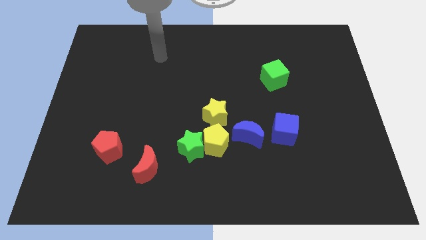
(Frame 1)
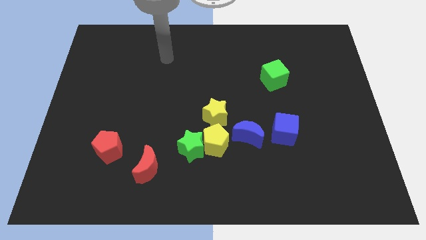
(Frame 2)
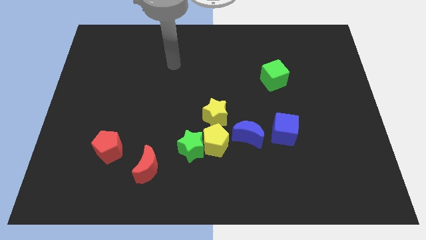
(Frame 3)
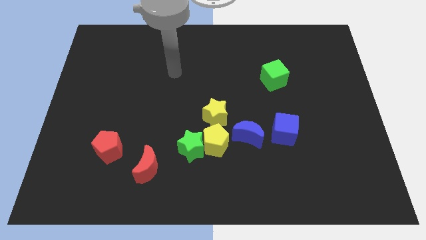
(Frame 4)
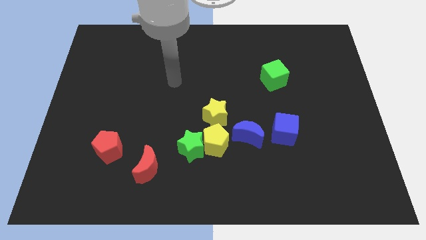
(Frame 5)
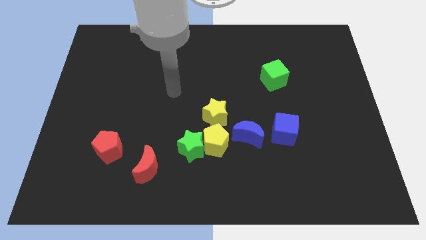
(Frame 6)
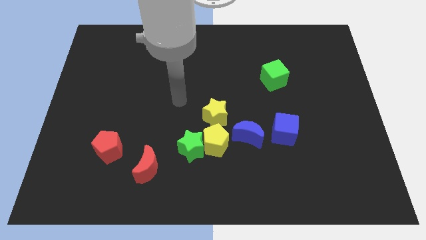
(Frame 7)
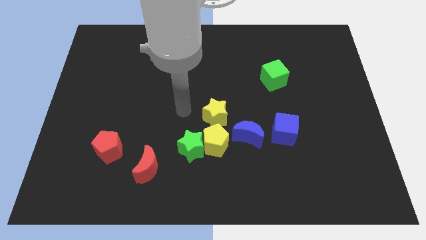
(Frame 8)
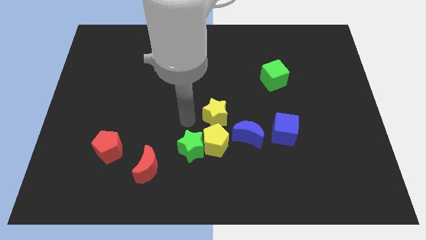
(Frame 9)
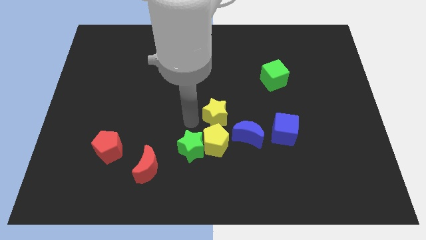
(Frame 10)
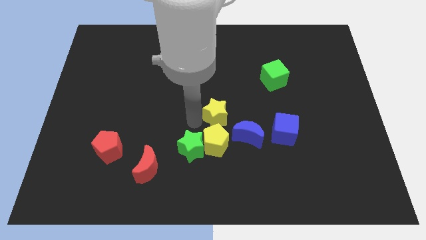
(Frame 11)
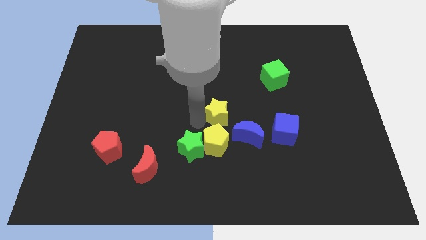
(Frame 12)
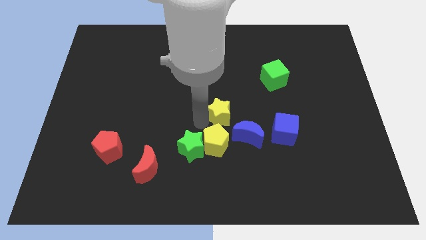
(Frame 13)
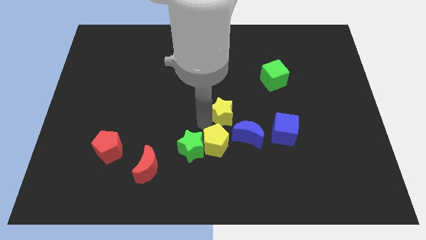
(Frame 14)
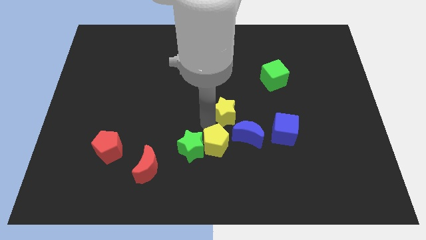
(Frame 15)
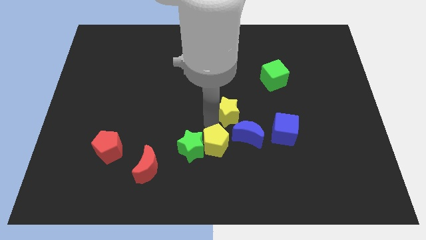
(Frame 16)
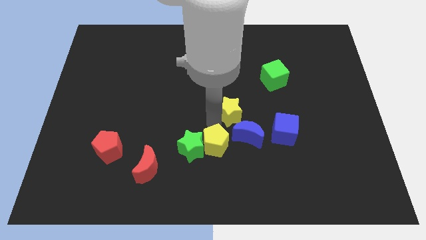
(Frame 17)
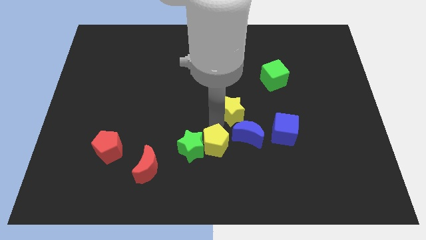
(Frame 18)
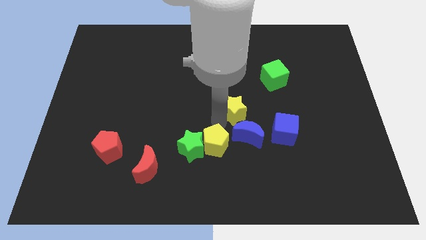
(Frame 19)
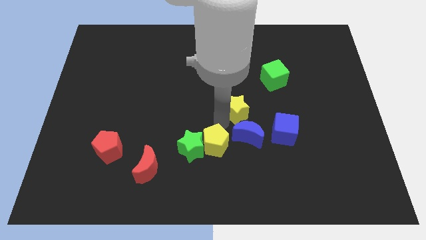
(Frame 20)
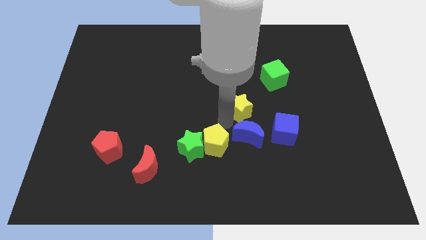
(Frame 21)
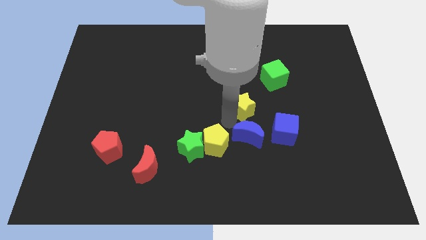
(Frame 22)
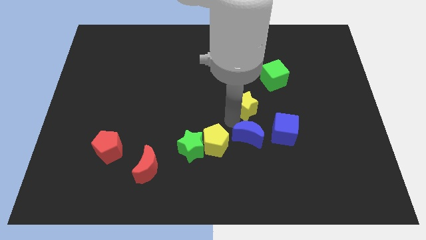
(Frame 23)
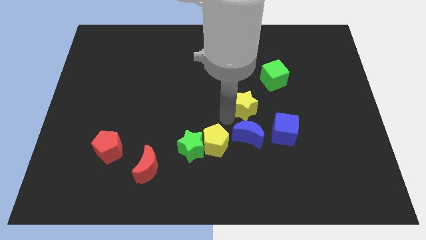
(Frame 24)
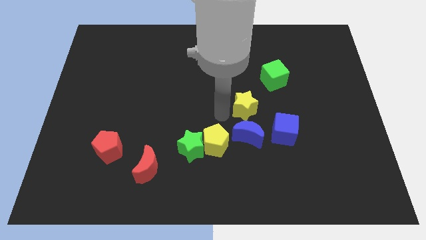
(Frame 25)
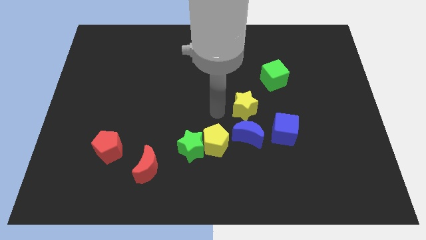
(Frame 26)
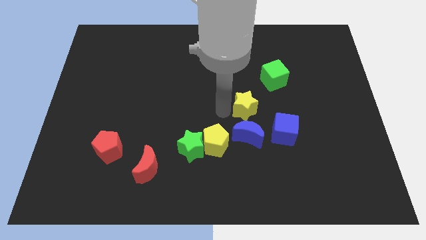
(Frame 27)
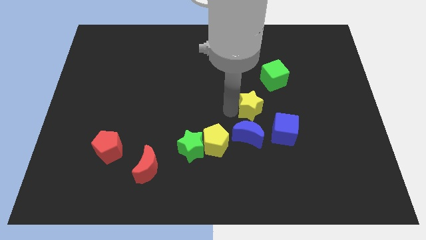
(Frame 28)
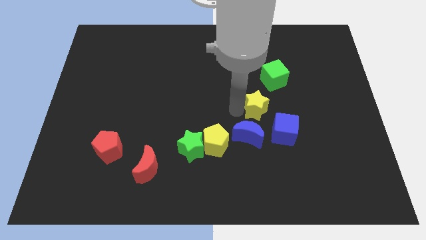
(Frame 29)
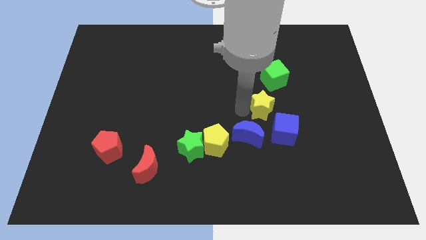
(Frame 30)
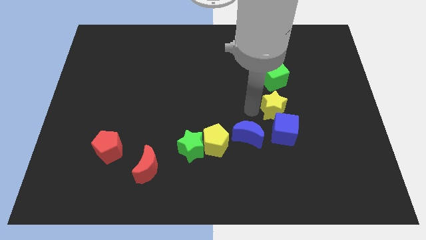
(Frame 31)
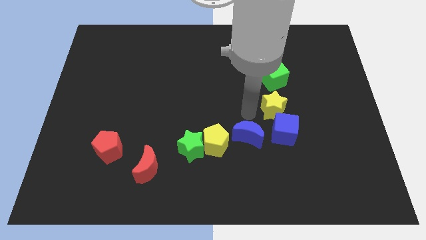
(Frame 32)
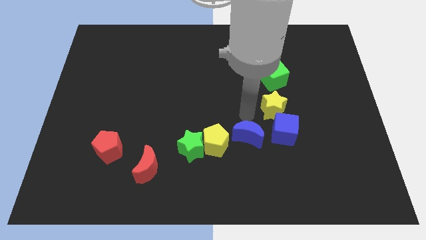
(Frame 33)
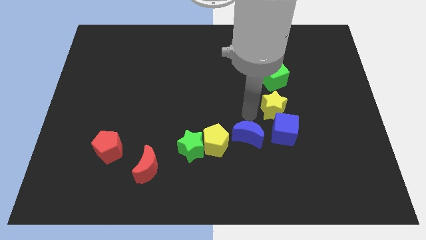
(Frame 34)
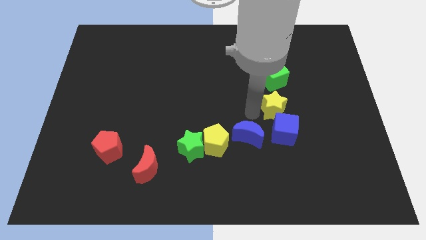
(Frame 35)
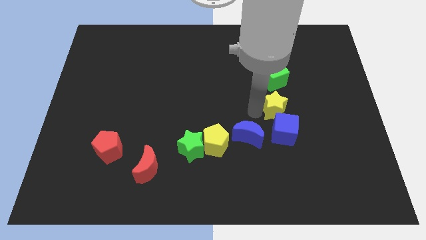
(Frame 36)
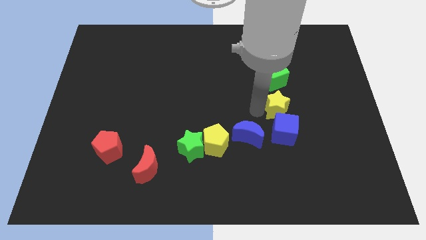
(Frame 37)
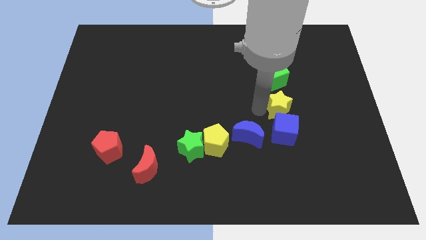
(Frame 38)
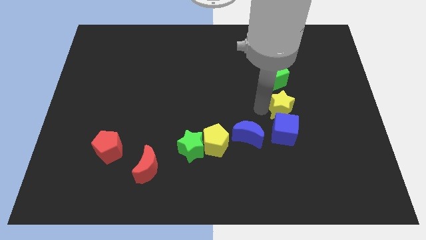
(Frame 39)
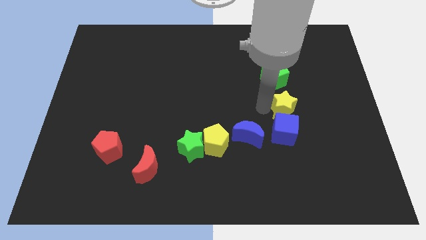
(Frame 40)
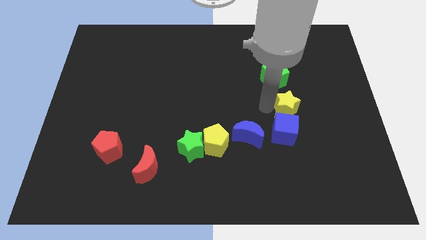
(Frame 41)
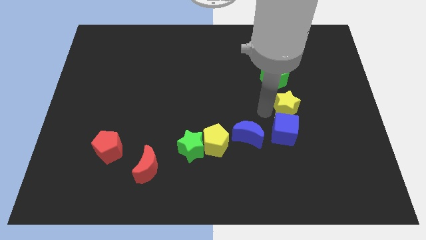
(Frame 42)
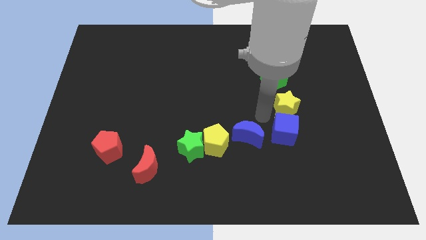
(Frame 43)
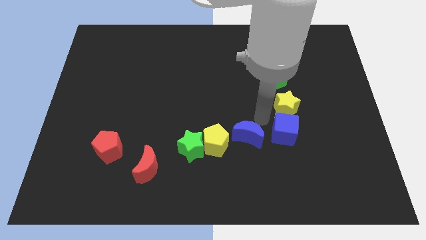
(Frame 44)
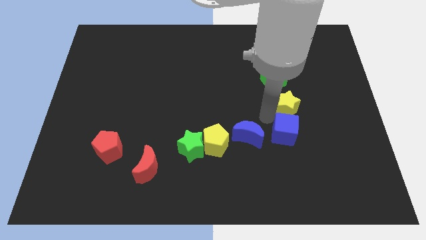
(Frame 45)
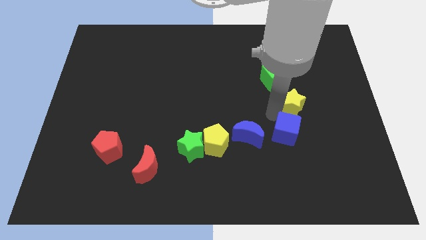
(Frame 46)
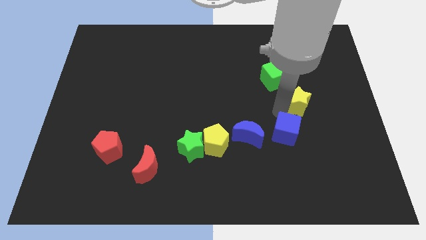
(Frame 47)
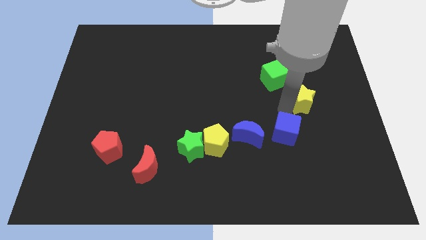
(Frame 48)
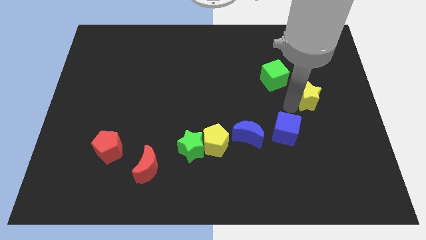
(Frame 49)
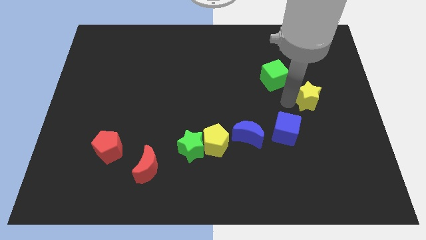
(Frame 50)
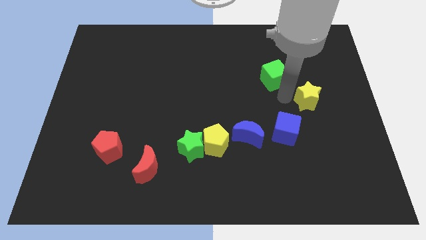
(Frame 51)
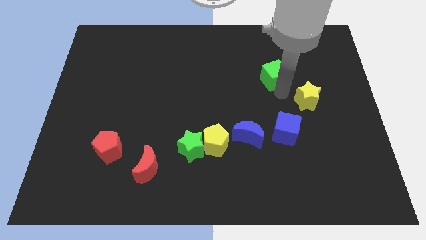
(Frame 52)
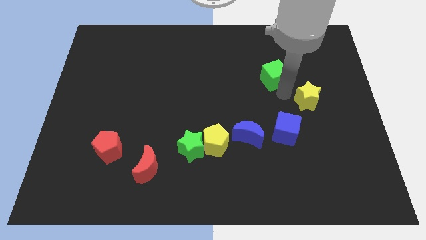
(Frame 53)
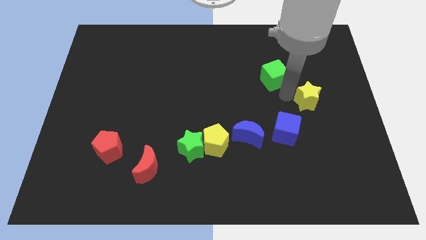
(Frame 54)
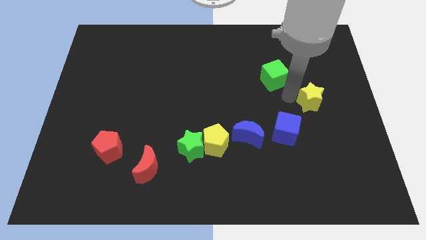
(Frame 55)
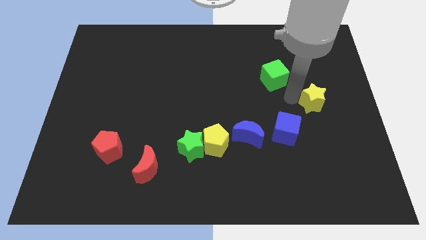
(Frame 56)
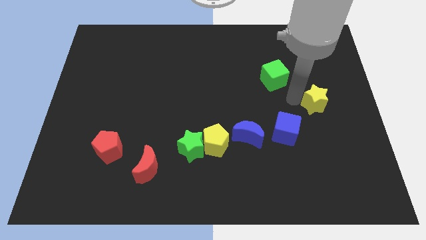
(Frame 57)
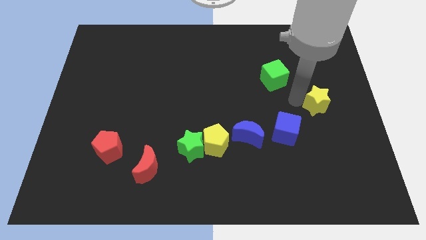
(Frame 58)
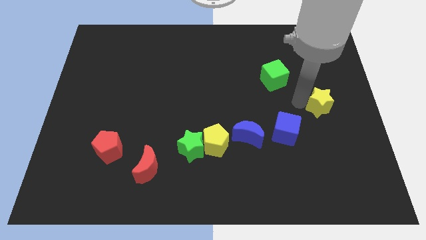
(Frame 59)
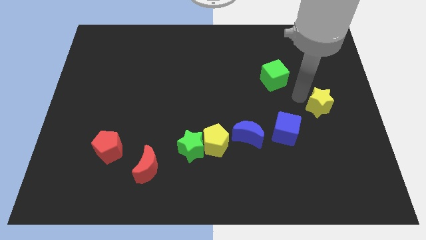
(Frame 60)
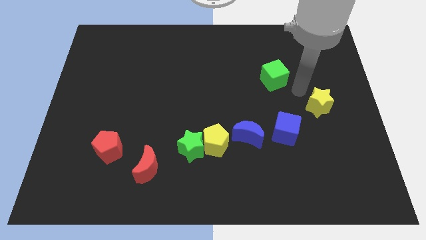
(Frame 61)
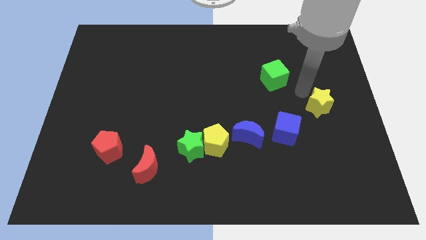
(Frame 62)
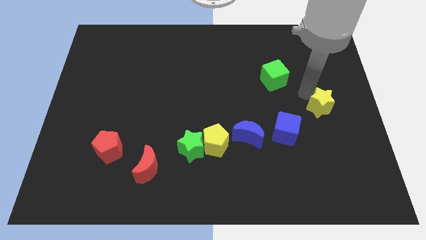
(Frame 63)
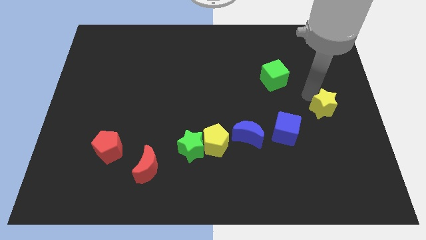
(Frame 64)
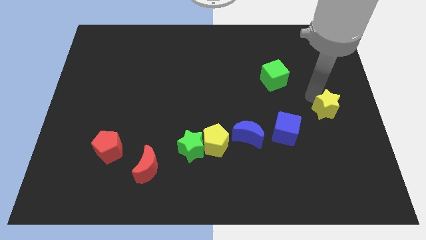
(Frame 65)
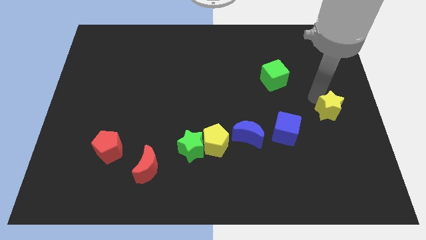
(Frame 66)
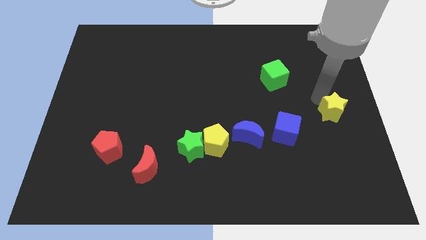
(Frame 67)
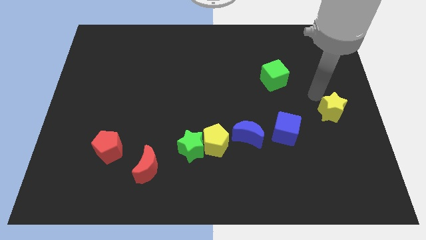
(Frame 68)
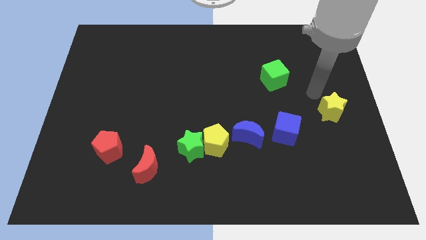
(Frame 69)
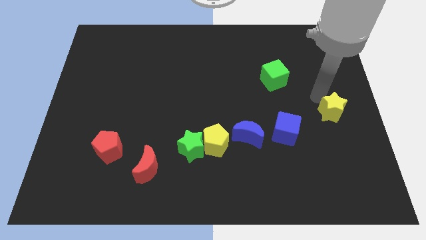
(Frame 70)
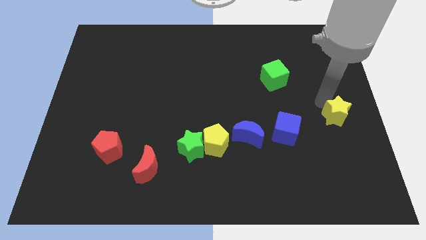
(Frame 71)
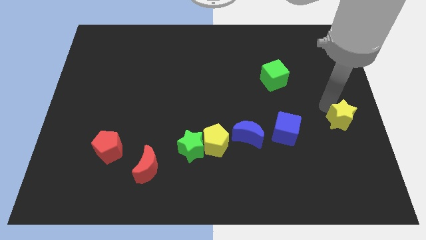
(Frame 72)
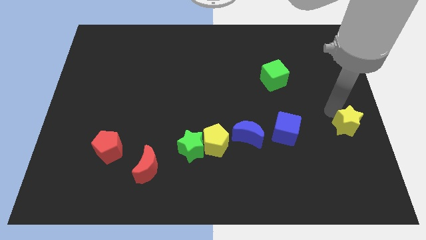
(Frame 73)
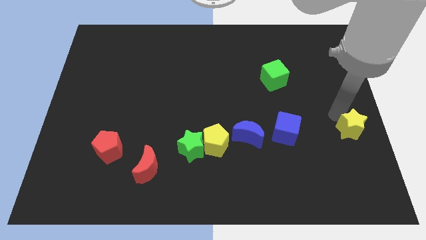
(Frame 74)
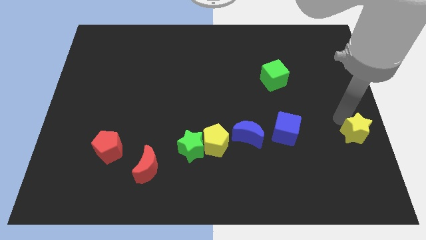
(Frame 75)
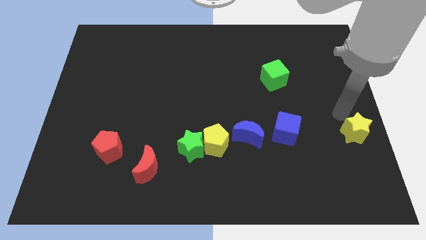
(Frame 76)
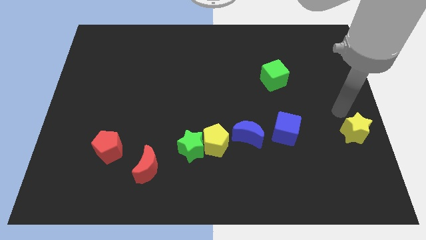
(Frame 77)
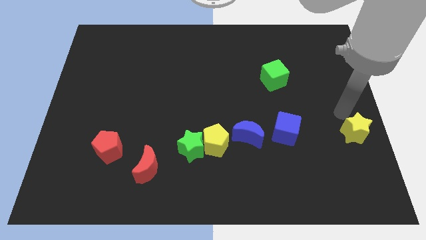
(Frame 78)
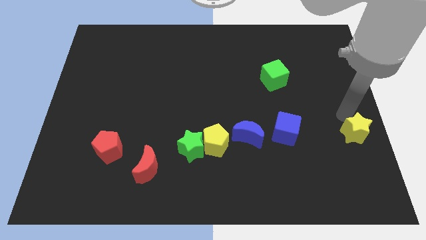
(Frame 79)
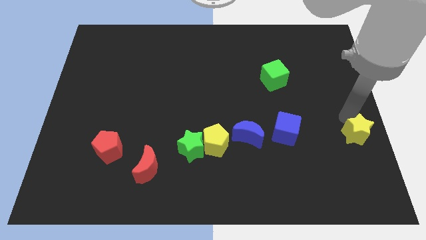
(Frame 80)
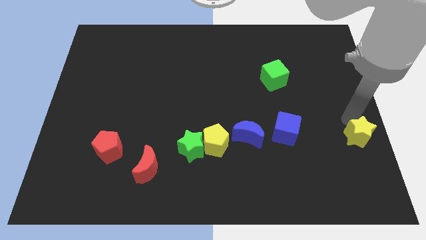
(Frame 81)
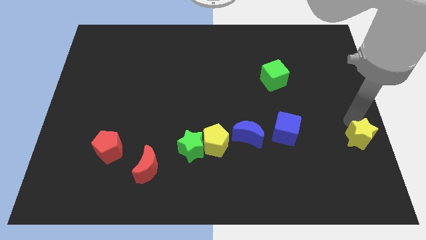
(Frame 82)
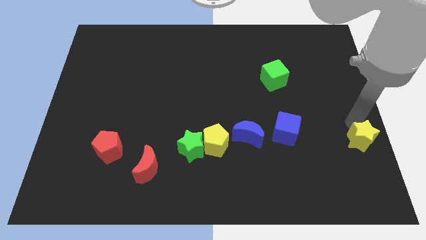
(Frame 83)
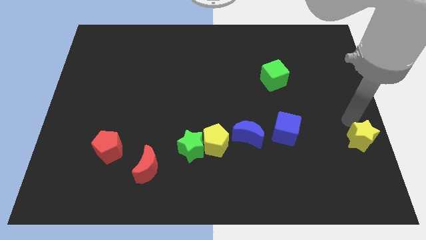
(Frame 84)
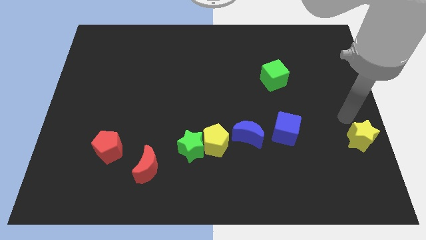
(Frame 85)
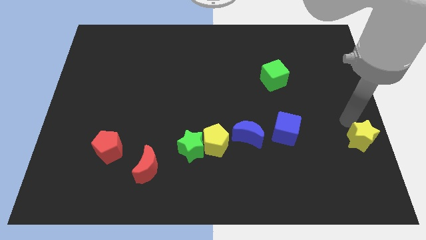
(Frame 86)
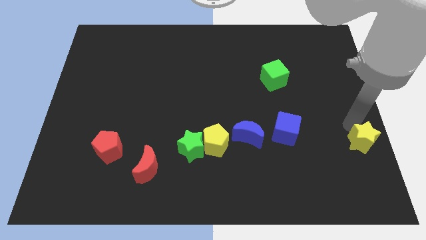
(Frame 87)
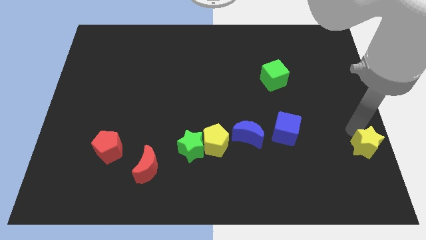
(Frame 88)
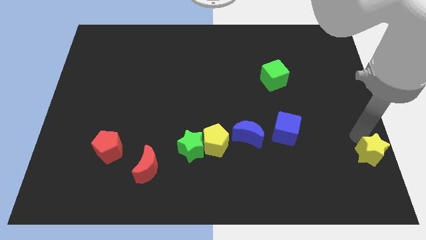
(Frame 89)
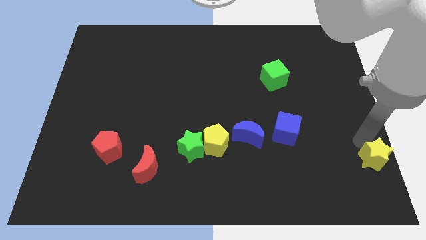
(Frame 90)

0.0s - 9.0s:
put the yellow star to the bottom right
